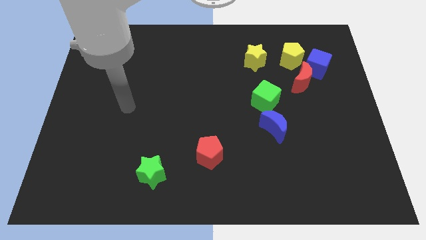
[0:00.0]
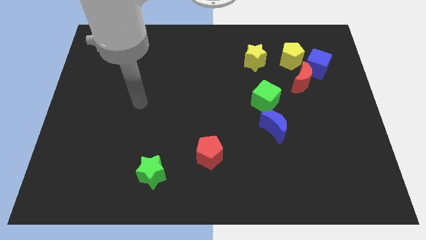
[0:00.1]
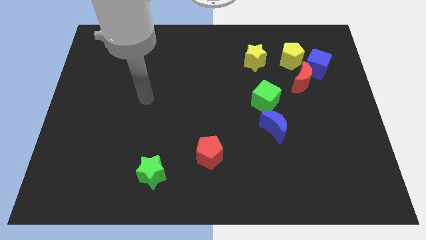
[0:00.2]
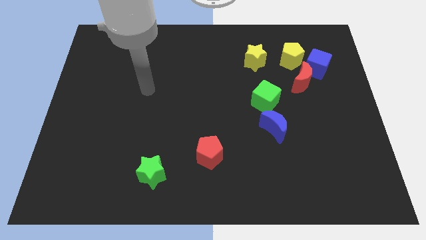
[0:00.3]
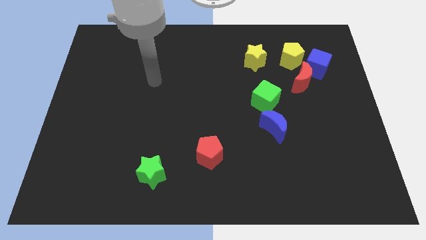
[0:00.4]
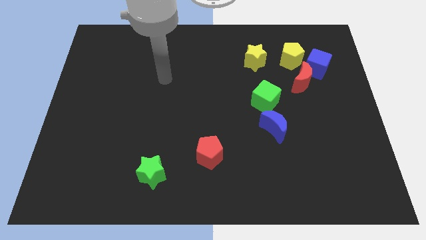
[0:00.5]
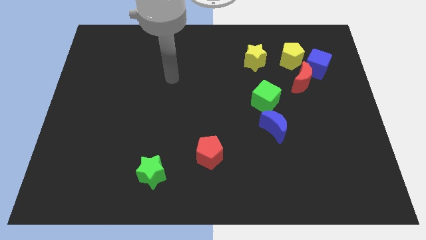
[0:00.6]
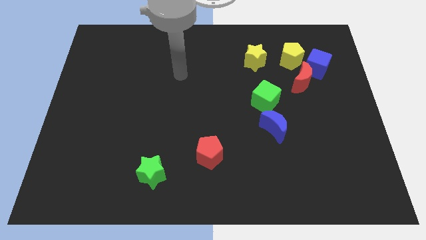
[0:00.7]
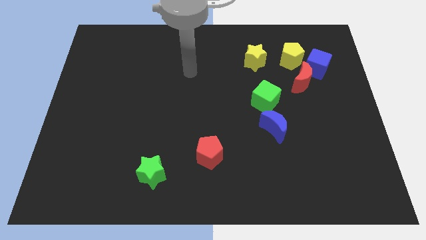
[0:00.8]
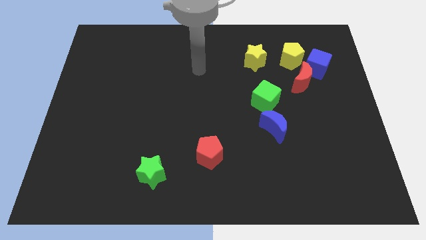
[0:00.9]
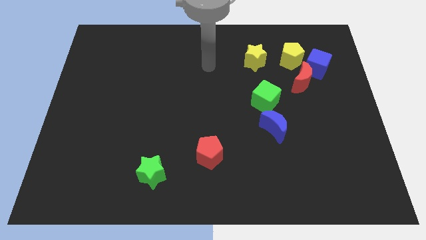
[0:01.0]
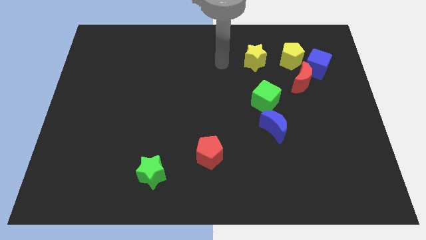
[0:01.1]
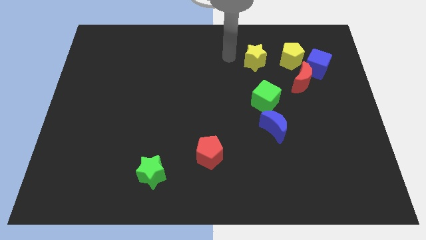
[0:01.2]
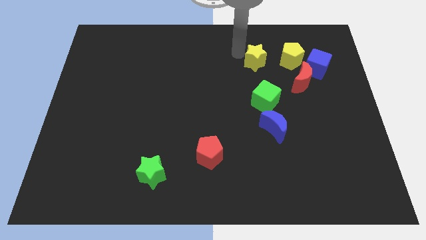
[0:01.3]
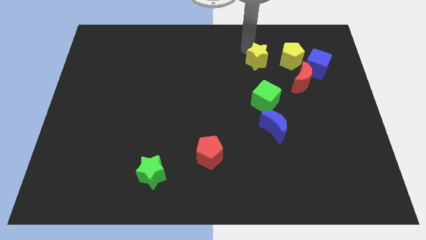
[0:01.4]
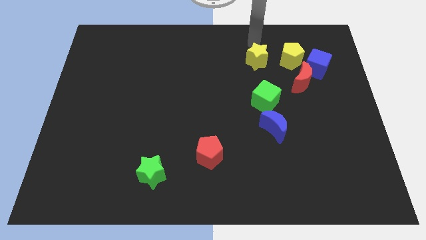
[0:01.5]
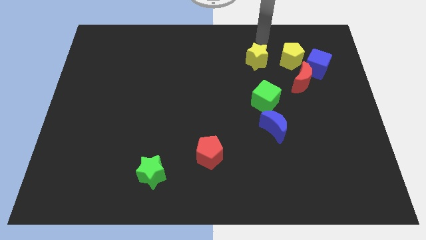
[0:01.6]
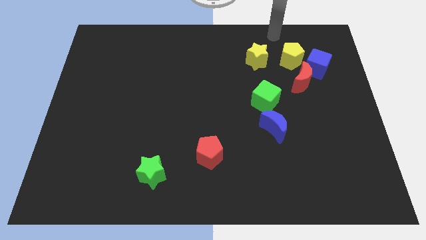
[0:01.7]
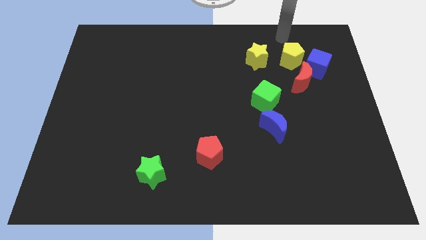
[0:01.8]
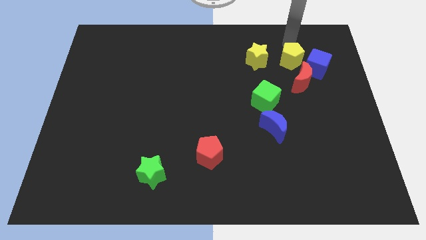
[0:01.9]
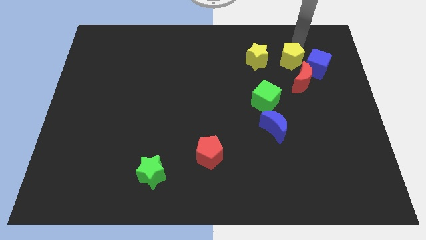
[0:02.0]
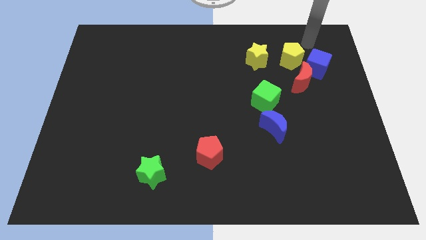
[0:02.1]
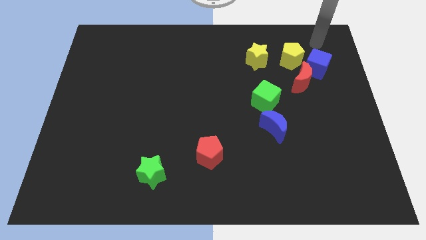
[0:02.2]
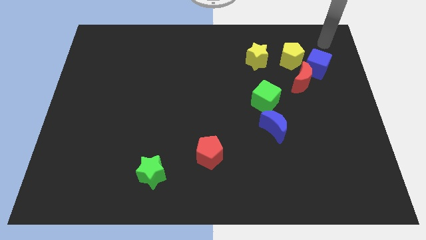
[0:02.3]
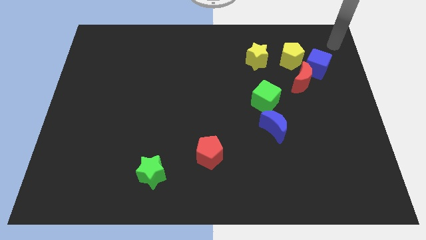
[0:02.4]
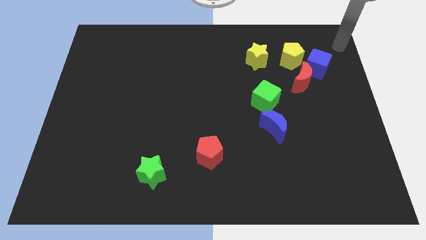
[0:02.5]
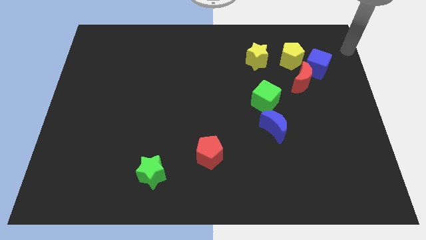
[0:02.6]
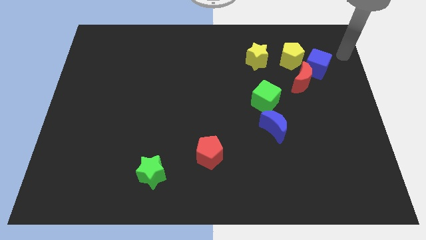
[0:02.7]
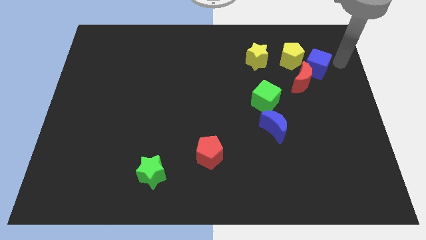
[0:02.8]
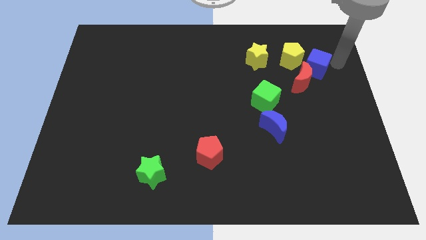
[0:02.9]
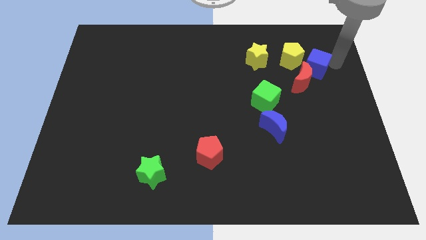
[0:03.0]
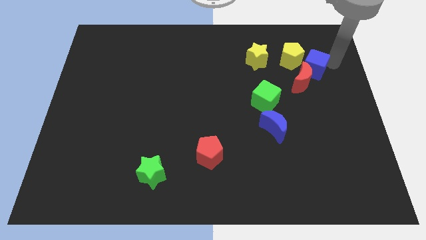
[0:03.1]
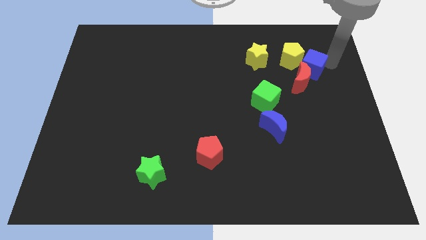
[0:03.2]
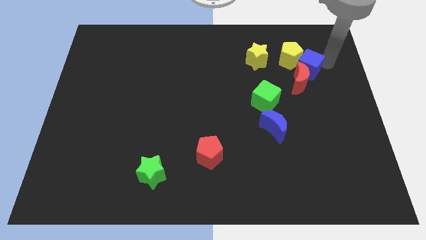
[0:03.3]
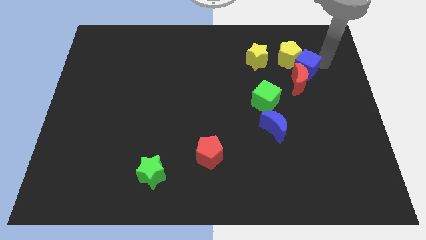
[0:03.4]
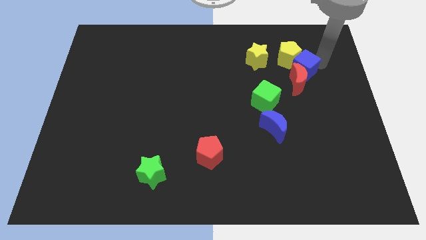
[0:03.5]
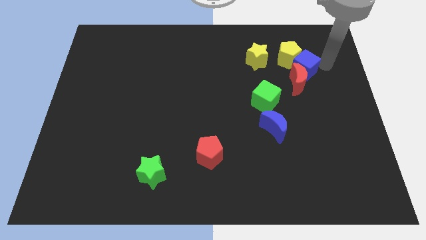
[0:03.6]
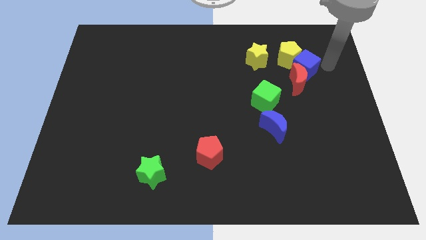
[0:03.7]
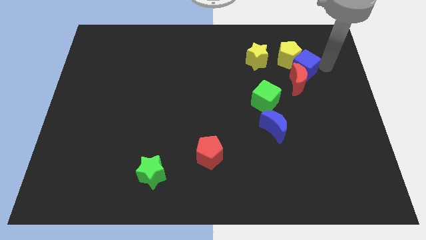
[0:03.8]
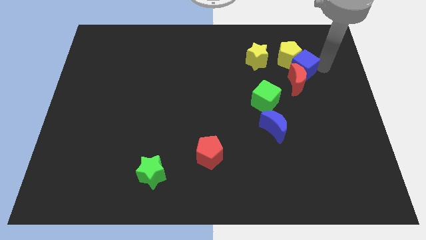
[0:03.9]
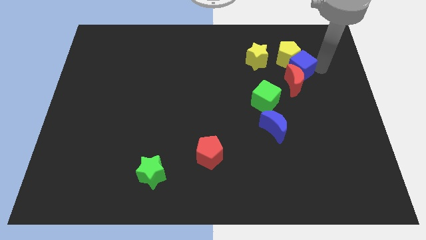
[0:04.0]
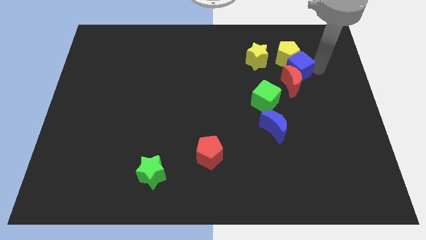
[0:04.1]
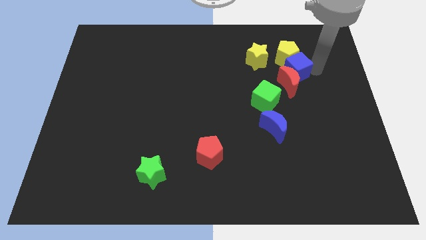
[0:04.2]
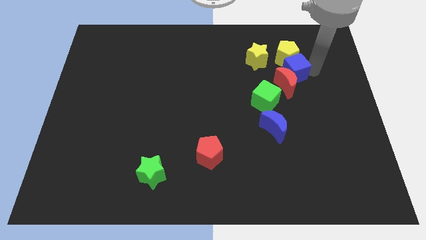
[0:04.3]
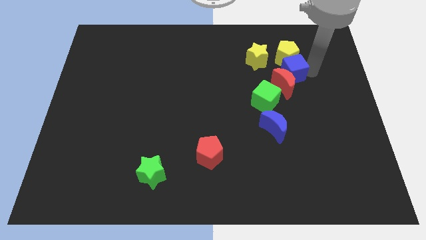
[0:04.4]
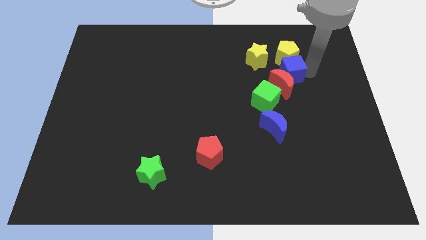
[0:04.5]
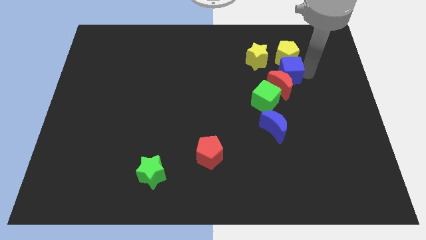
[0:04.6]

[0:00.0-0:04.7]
slide the blue cube a little to the left

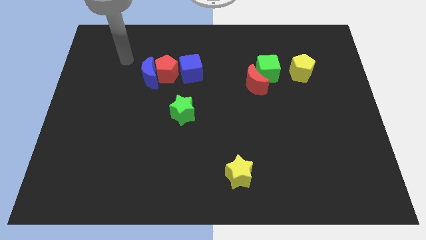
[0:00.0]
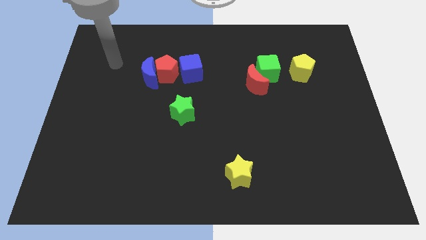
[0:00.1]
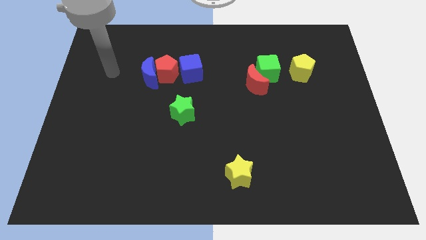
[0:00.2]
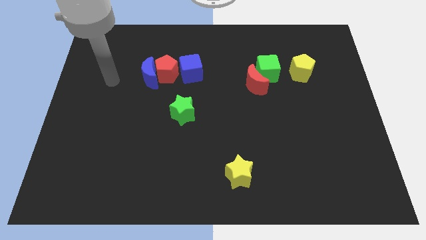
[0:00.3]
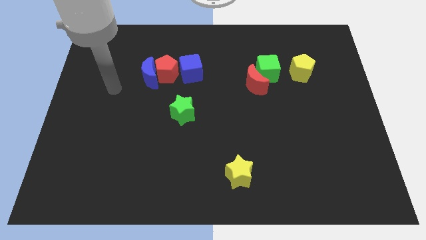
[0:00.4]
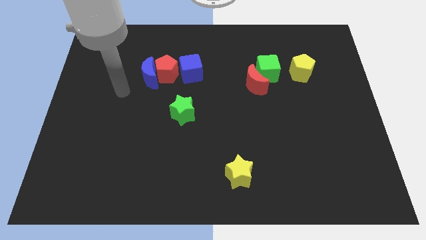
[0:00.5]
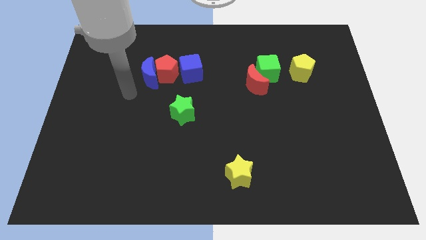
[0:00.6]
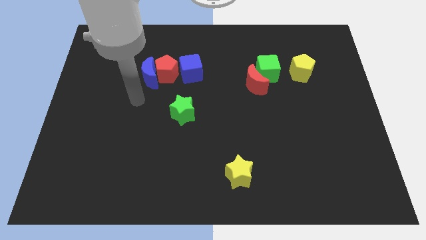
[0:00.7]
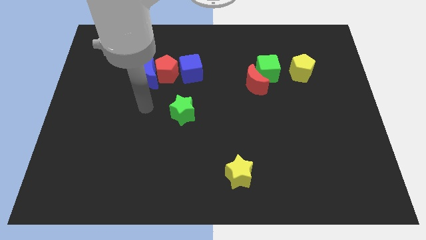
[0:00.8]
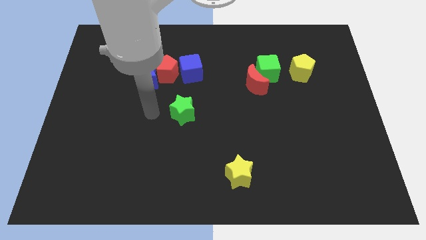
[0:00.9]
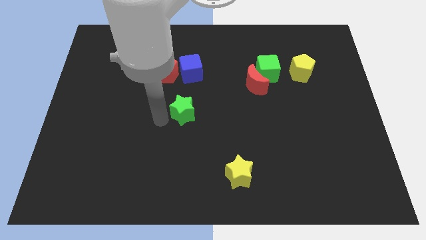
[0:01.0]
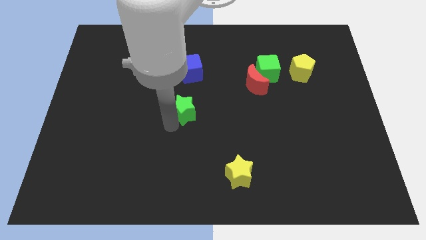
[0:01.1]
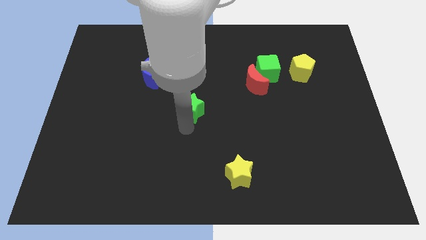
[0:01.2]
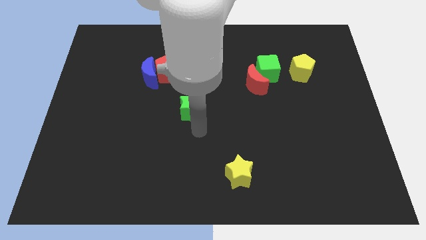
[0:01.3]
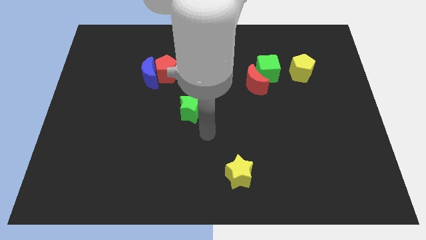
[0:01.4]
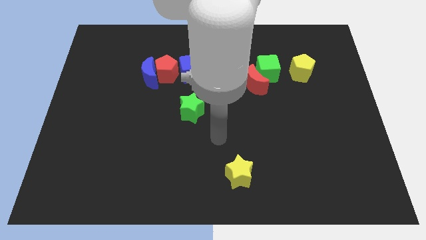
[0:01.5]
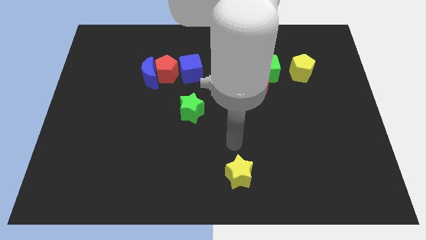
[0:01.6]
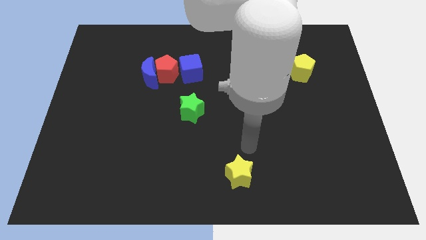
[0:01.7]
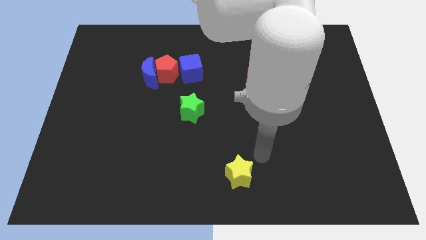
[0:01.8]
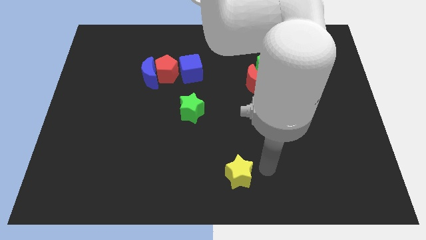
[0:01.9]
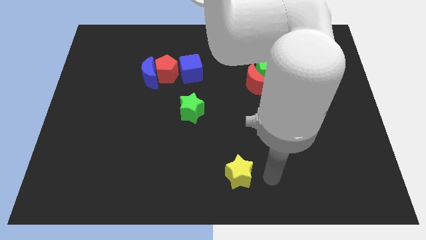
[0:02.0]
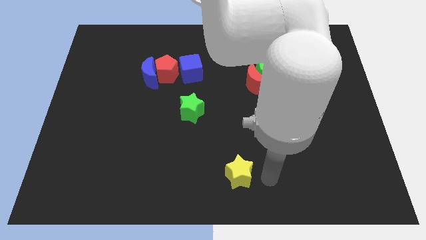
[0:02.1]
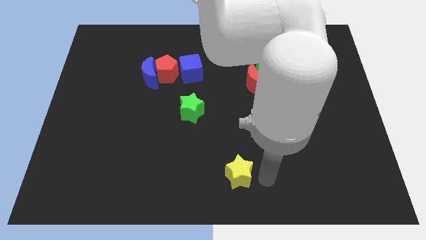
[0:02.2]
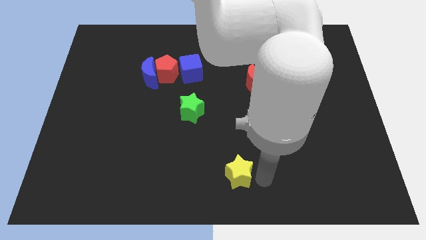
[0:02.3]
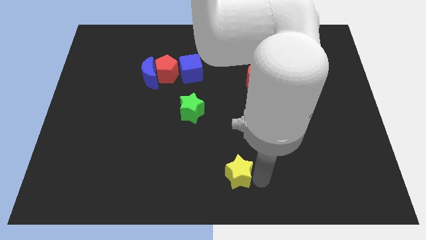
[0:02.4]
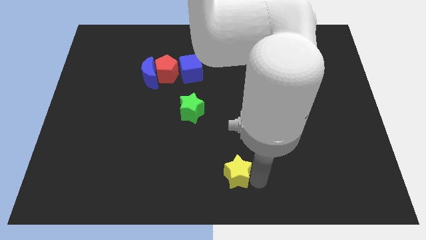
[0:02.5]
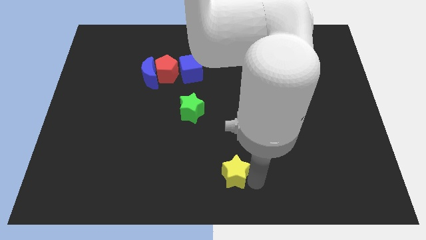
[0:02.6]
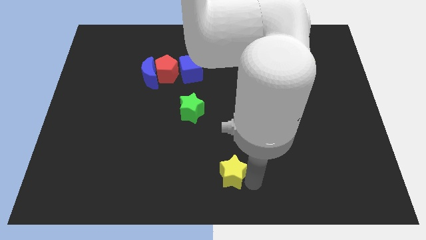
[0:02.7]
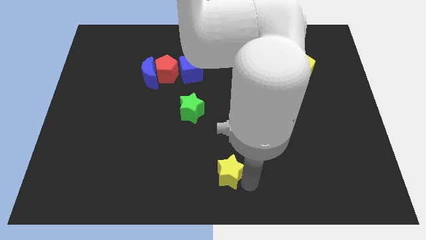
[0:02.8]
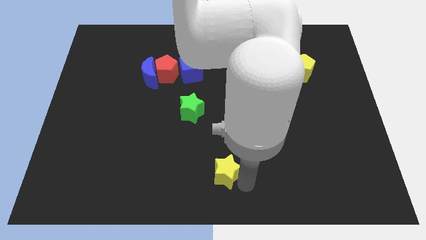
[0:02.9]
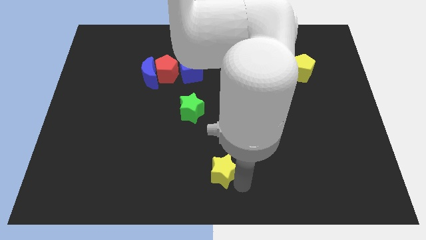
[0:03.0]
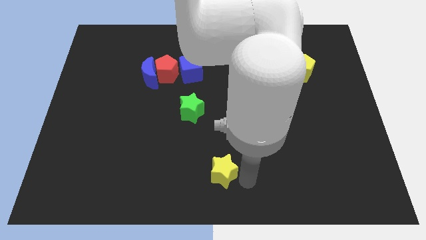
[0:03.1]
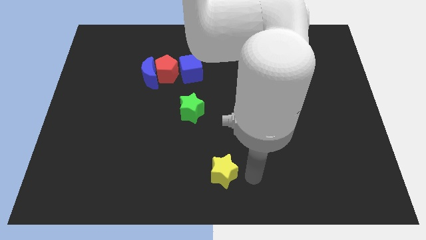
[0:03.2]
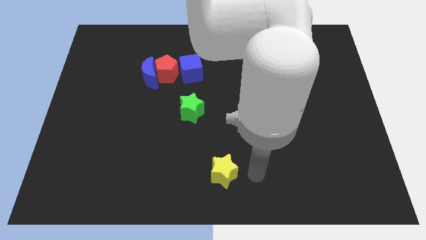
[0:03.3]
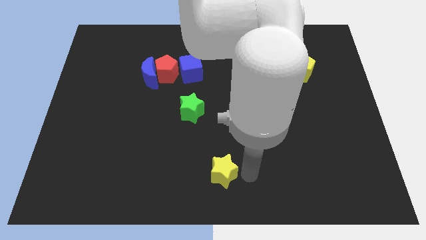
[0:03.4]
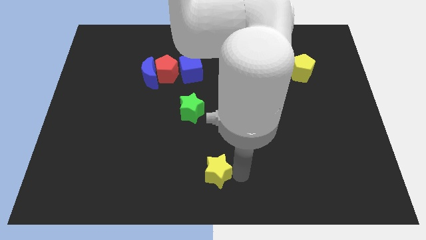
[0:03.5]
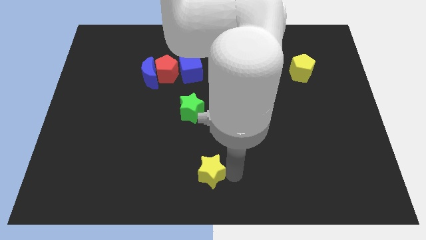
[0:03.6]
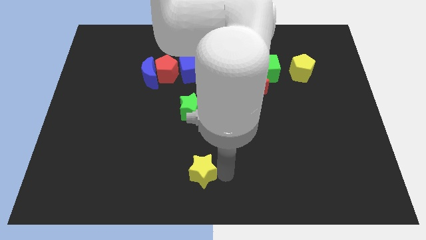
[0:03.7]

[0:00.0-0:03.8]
push the yellow star a little to the left
